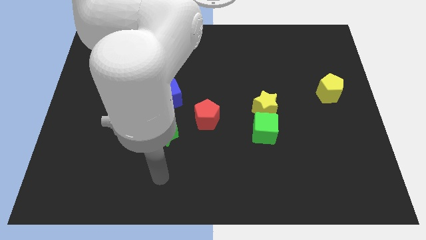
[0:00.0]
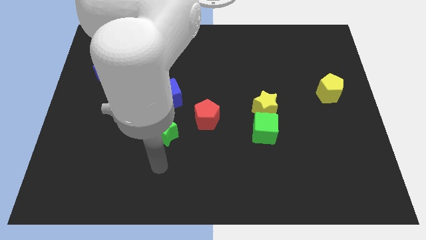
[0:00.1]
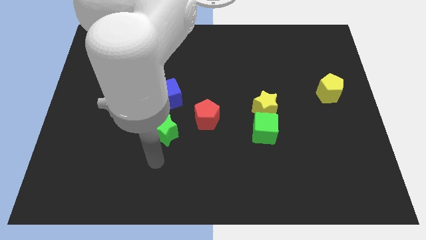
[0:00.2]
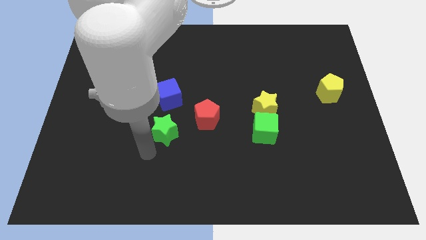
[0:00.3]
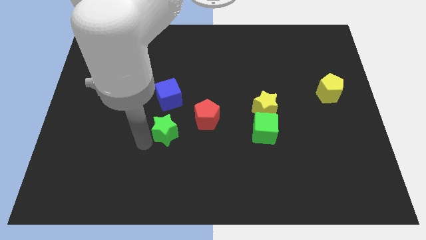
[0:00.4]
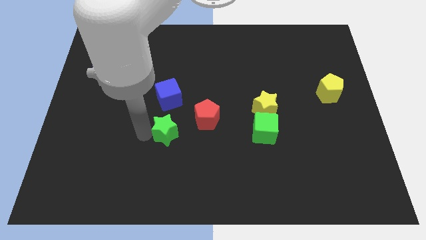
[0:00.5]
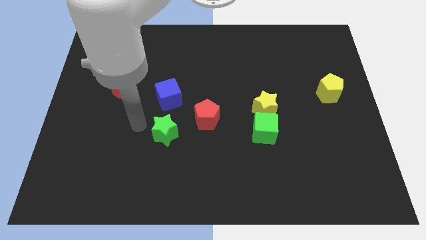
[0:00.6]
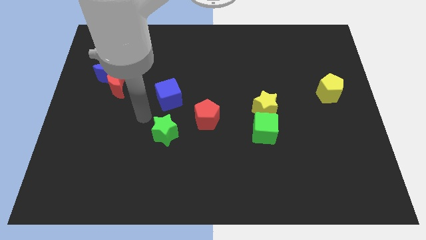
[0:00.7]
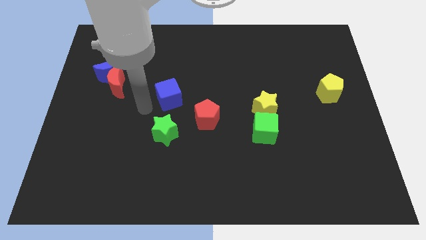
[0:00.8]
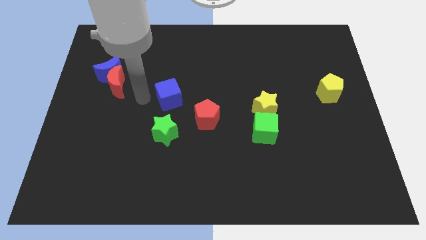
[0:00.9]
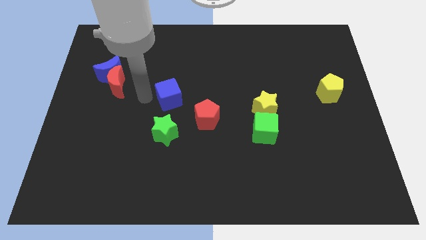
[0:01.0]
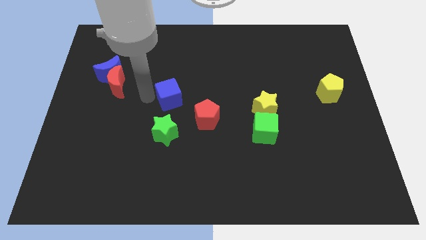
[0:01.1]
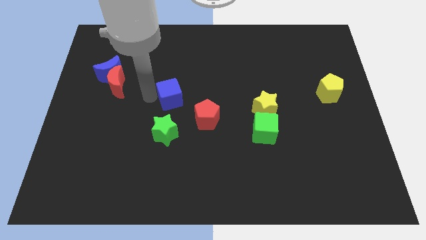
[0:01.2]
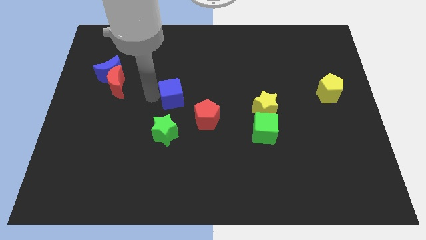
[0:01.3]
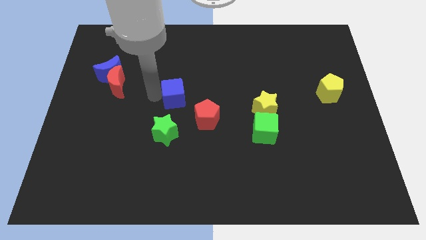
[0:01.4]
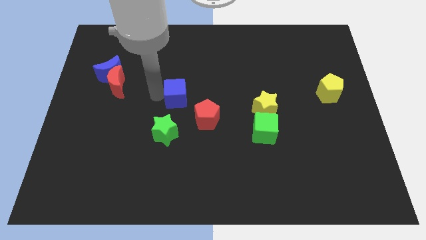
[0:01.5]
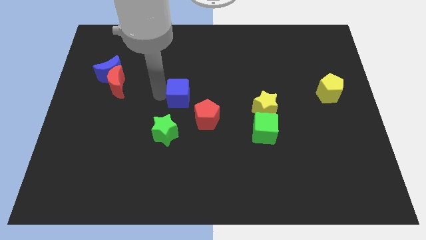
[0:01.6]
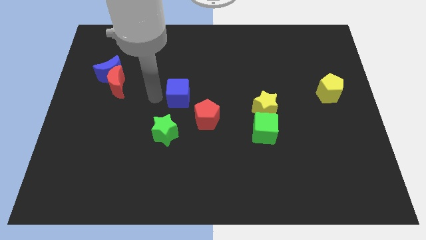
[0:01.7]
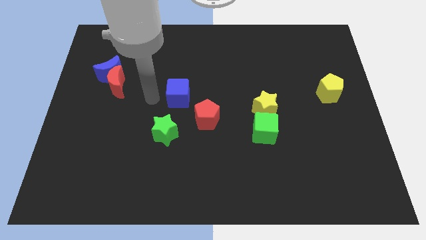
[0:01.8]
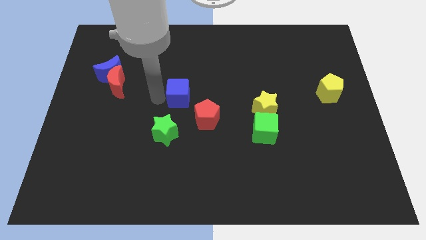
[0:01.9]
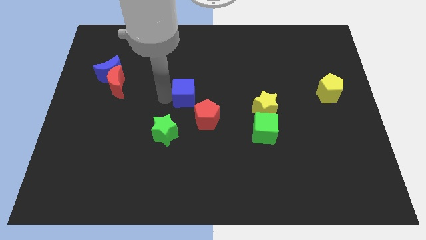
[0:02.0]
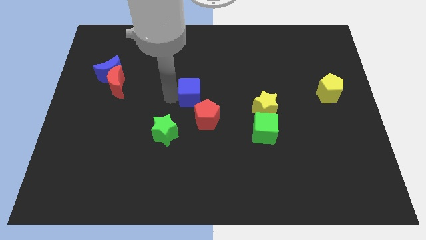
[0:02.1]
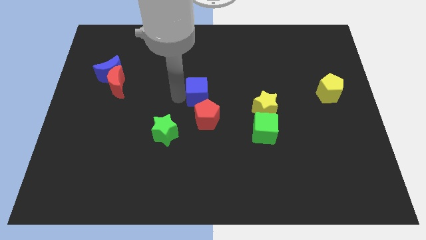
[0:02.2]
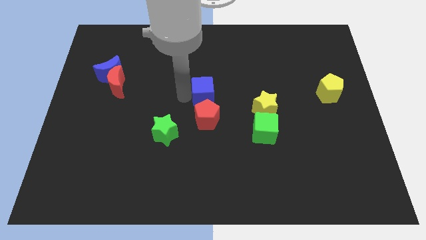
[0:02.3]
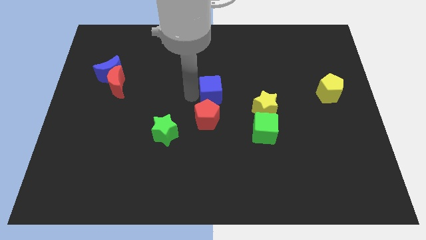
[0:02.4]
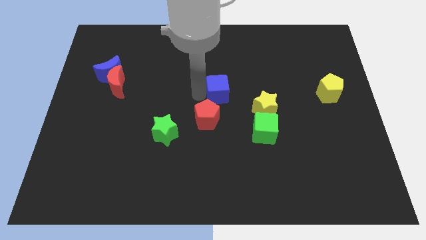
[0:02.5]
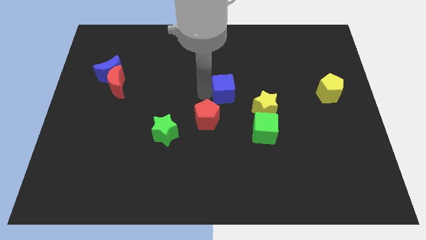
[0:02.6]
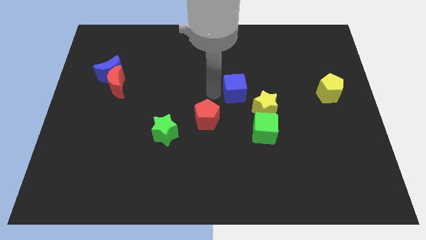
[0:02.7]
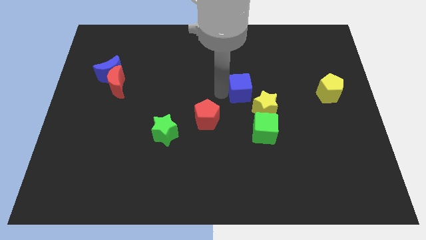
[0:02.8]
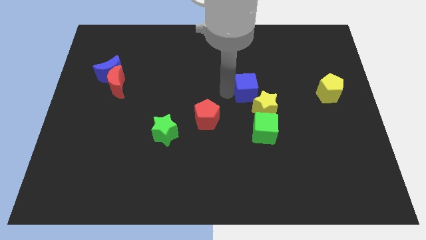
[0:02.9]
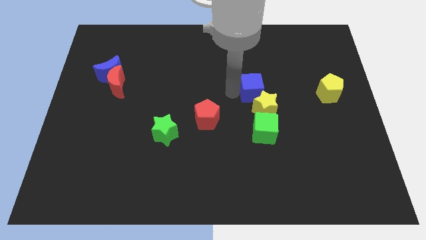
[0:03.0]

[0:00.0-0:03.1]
move the blue cube to the right

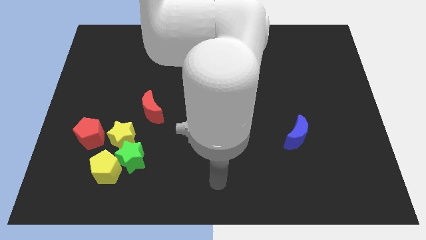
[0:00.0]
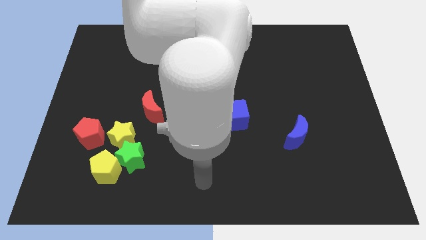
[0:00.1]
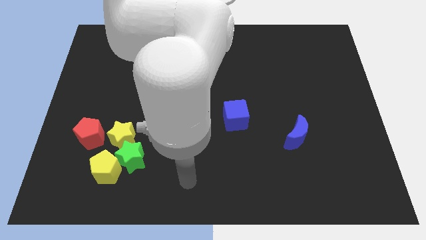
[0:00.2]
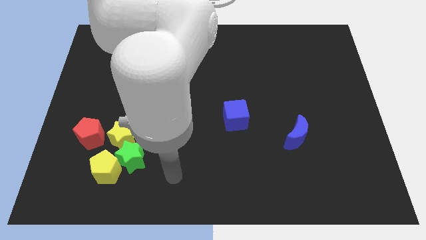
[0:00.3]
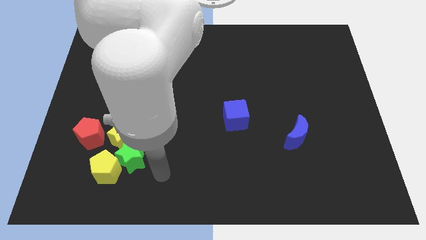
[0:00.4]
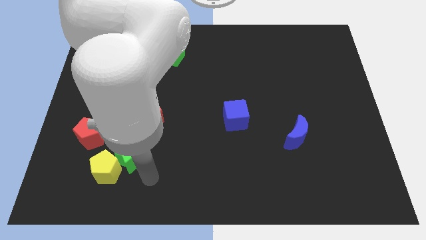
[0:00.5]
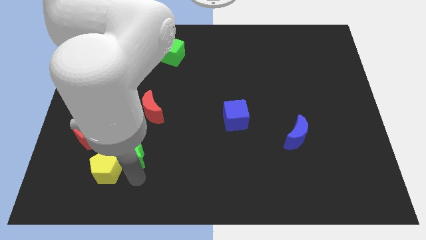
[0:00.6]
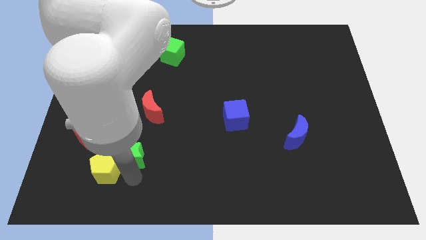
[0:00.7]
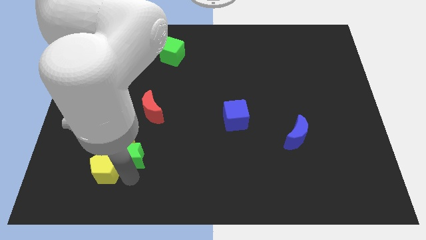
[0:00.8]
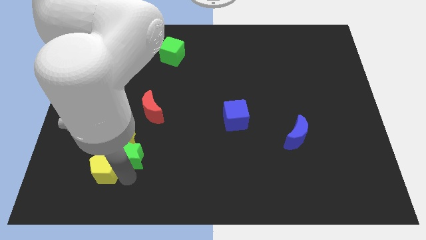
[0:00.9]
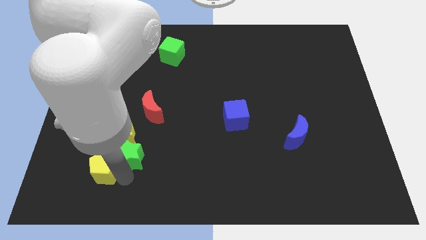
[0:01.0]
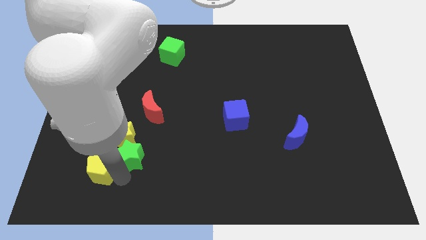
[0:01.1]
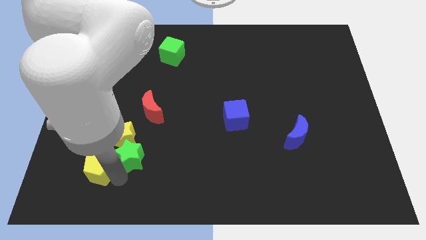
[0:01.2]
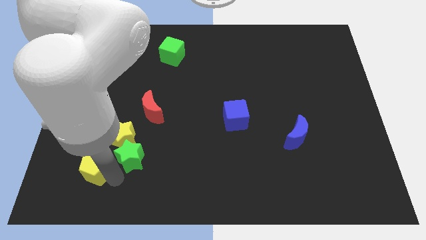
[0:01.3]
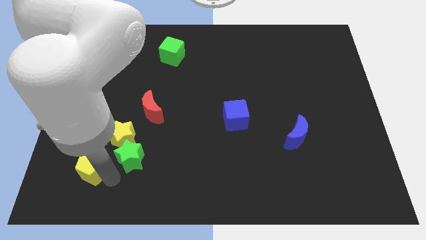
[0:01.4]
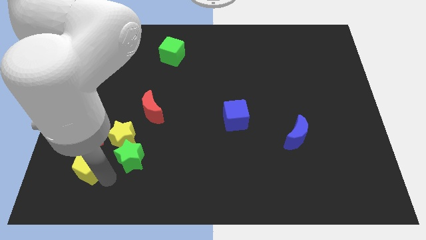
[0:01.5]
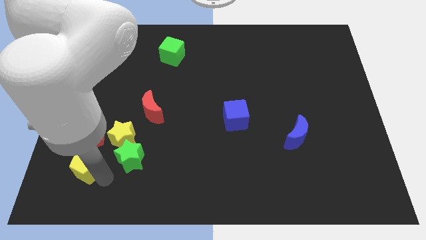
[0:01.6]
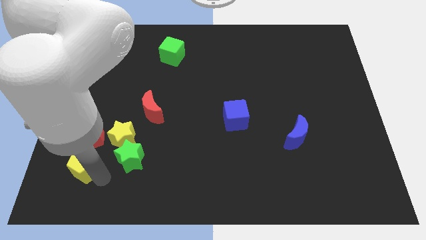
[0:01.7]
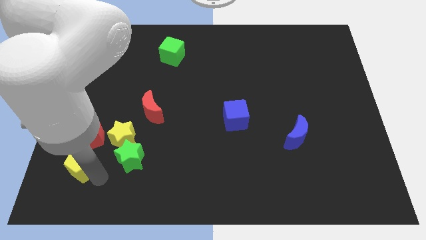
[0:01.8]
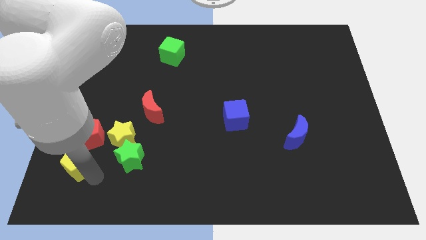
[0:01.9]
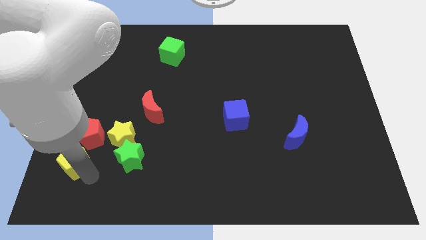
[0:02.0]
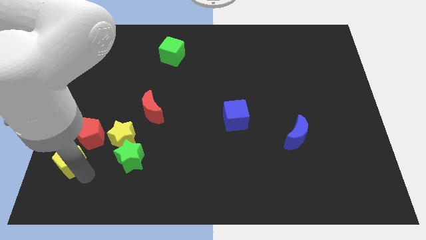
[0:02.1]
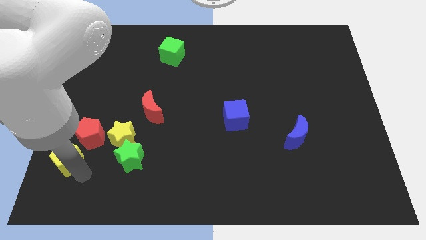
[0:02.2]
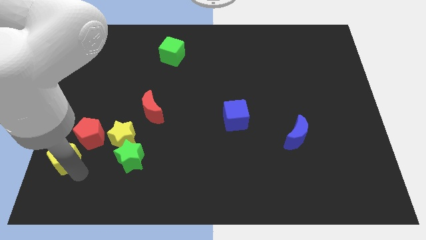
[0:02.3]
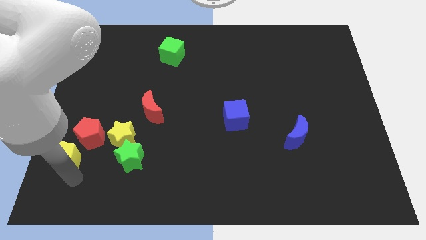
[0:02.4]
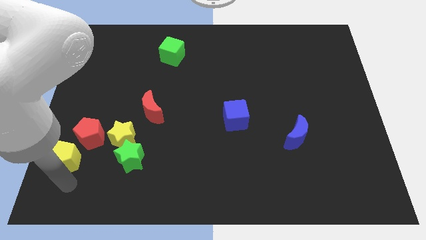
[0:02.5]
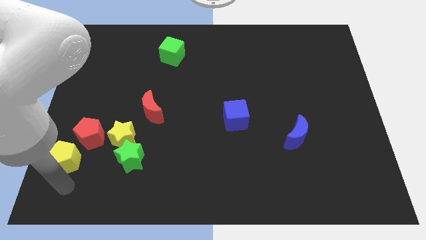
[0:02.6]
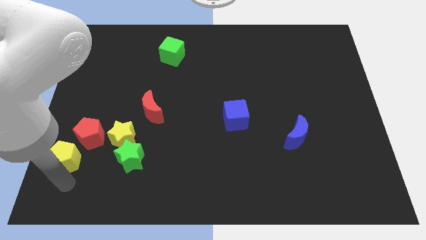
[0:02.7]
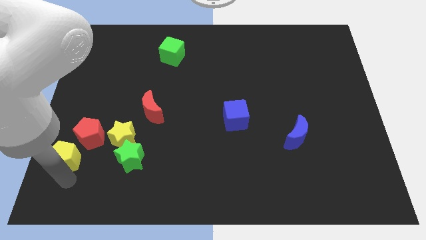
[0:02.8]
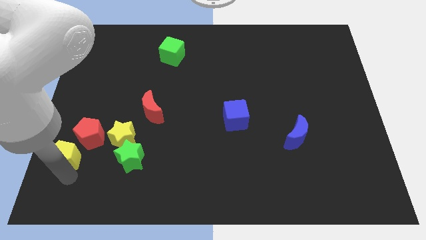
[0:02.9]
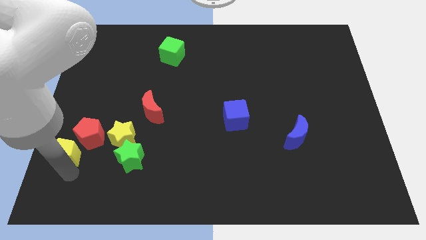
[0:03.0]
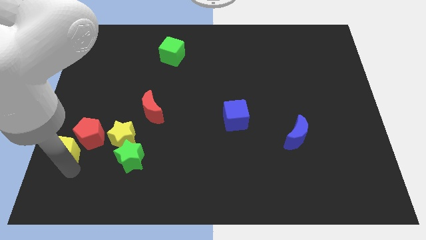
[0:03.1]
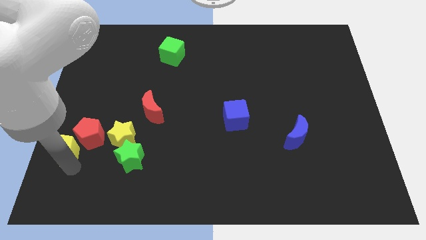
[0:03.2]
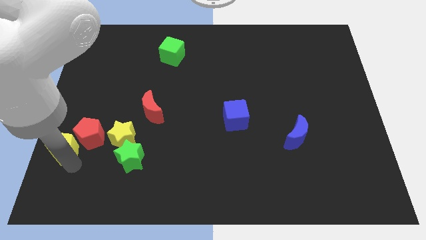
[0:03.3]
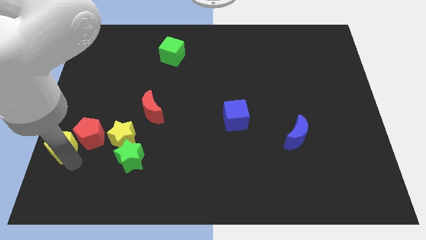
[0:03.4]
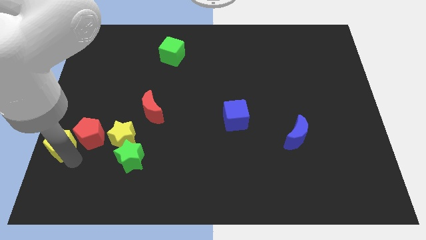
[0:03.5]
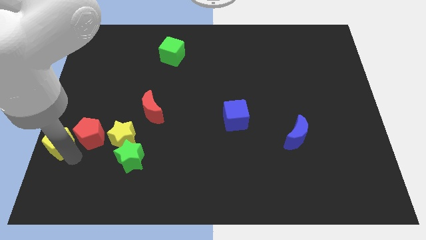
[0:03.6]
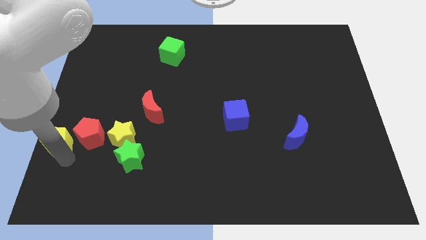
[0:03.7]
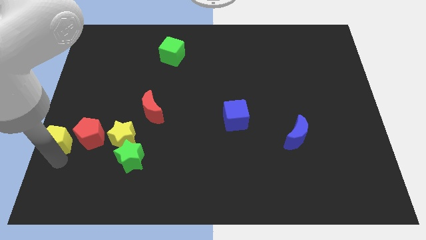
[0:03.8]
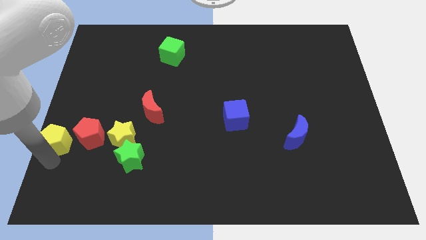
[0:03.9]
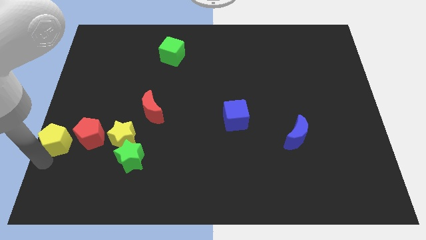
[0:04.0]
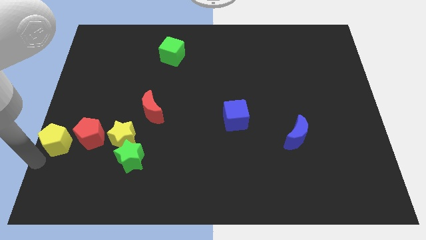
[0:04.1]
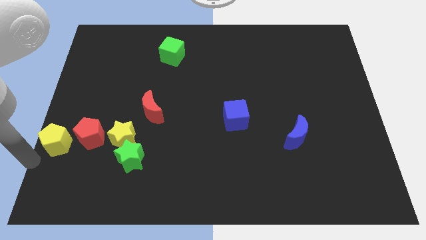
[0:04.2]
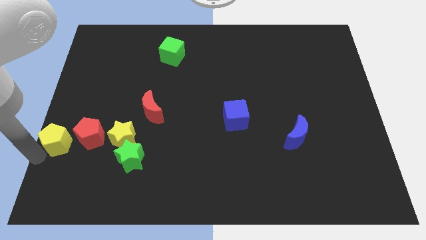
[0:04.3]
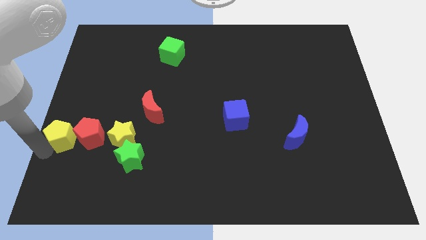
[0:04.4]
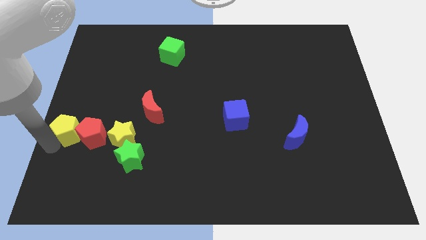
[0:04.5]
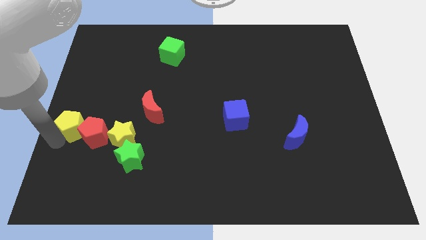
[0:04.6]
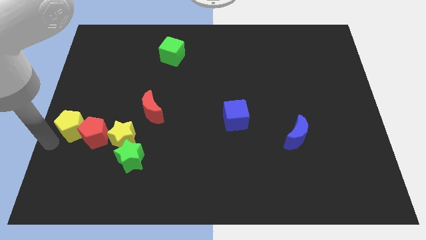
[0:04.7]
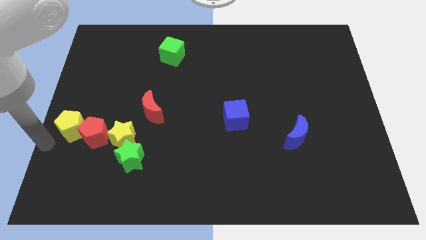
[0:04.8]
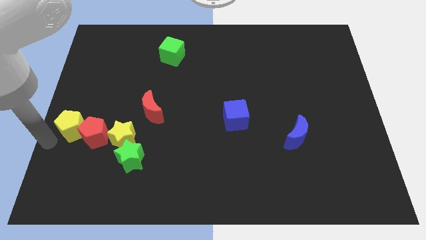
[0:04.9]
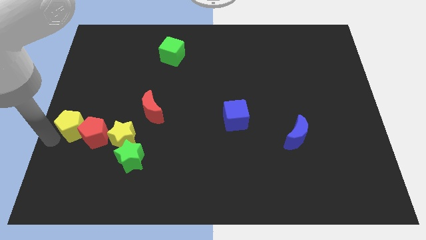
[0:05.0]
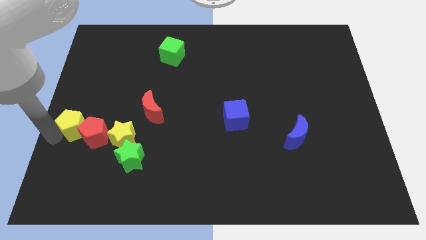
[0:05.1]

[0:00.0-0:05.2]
move the yellow pentagon a bit upwards
